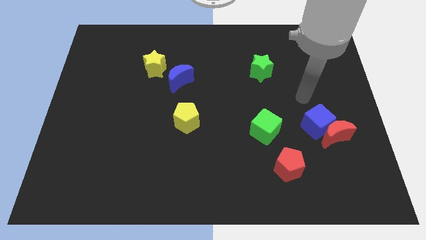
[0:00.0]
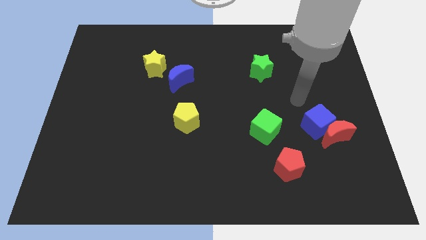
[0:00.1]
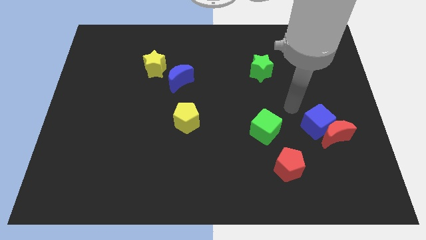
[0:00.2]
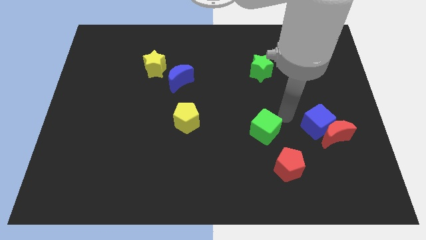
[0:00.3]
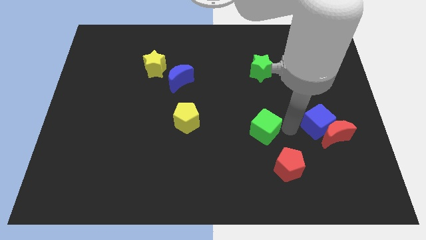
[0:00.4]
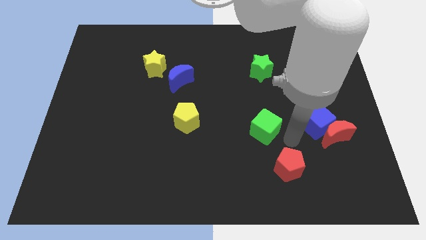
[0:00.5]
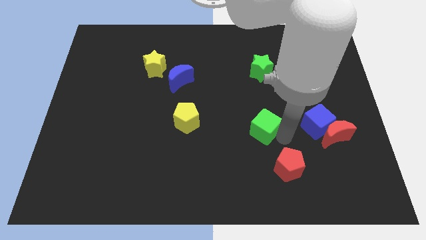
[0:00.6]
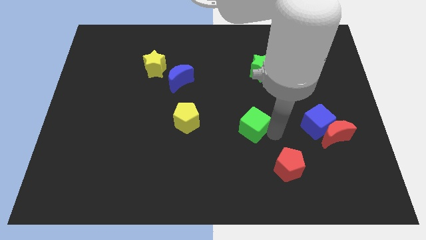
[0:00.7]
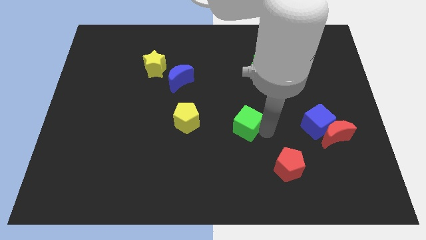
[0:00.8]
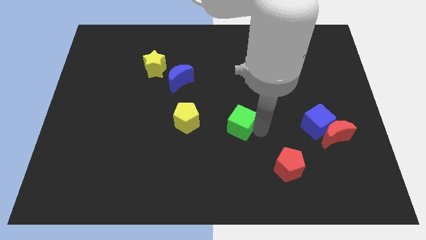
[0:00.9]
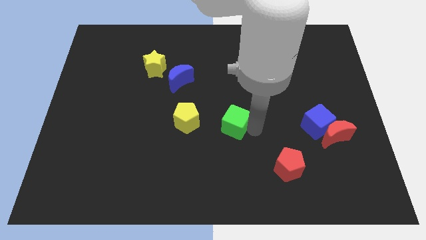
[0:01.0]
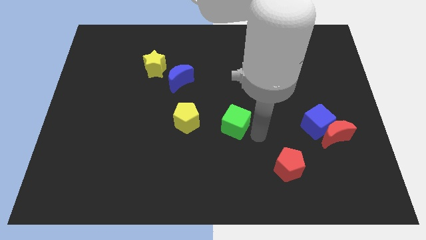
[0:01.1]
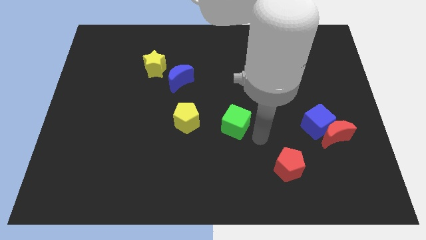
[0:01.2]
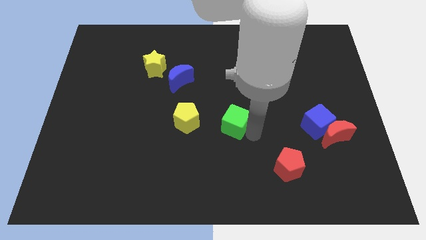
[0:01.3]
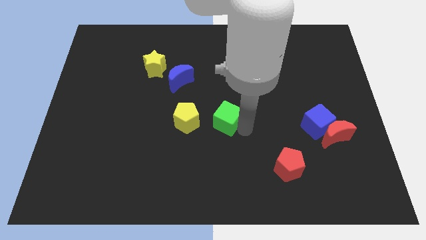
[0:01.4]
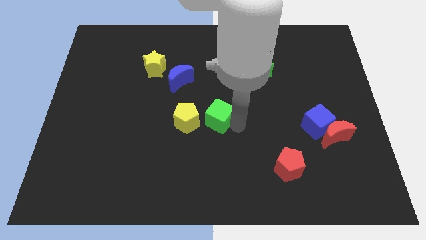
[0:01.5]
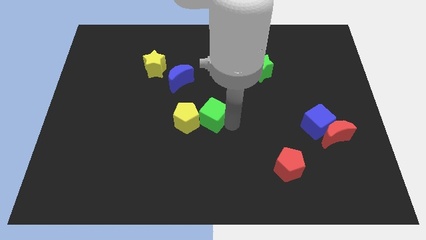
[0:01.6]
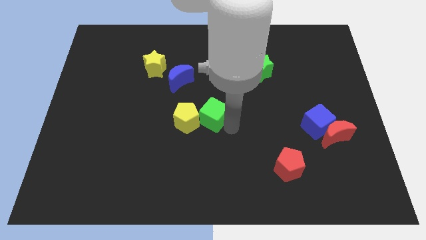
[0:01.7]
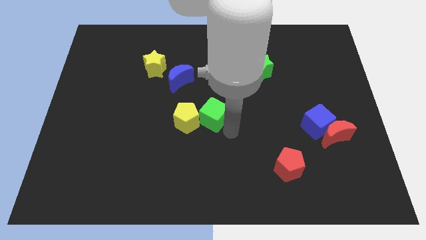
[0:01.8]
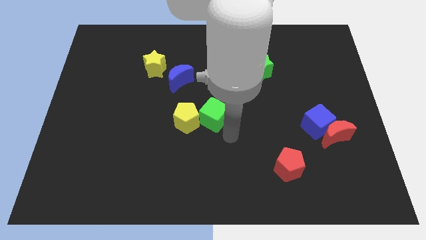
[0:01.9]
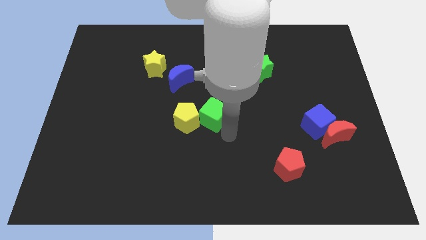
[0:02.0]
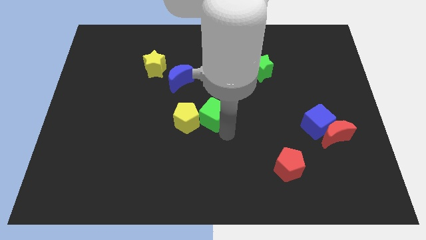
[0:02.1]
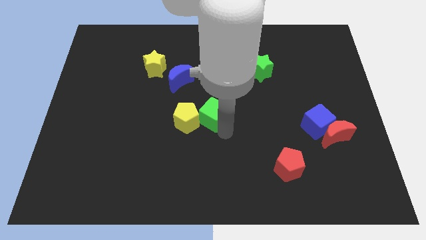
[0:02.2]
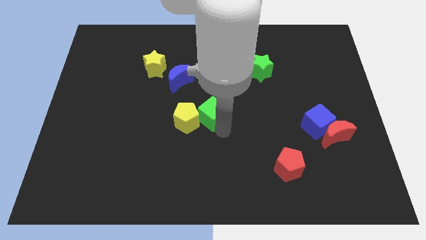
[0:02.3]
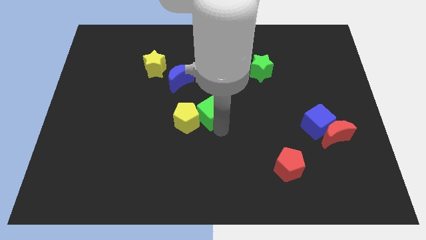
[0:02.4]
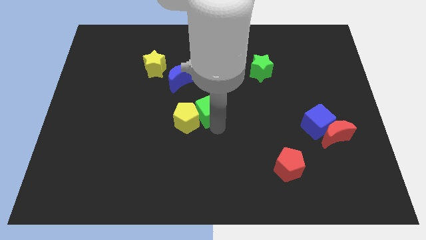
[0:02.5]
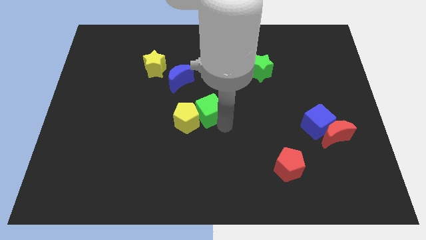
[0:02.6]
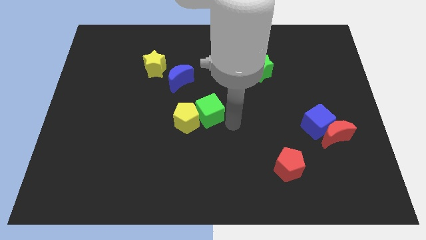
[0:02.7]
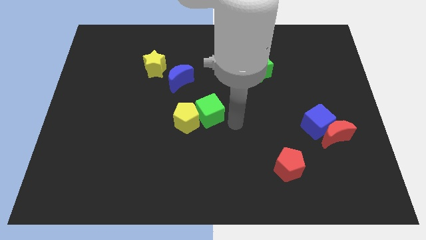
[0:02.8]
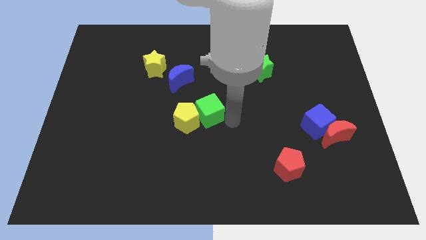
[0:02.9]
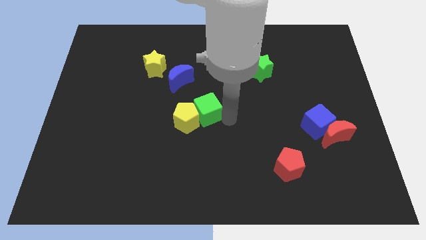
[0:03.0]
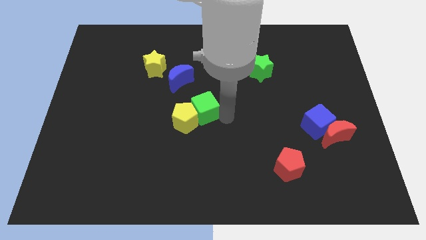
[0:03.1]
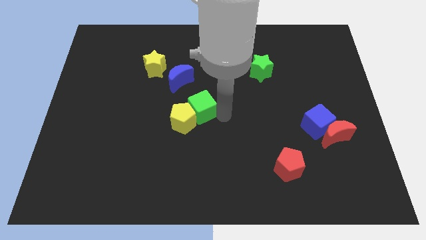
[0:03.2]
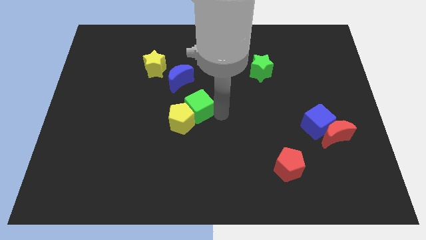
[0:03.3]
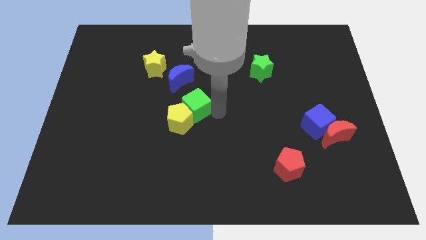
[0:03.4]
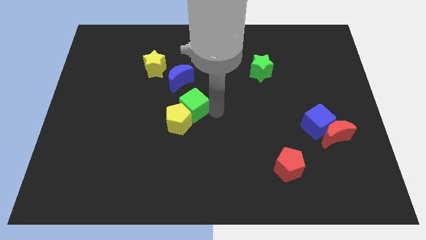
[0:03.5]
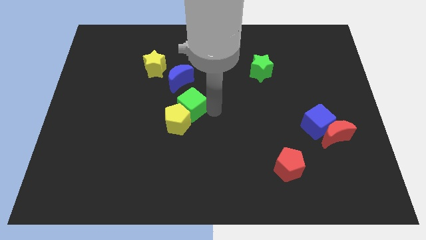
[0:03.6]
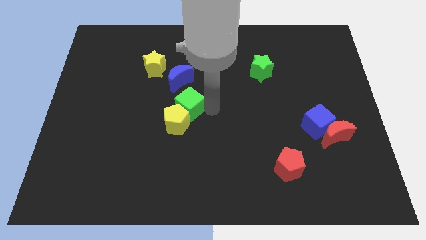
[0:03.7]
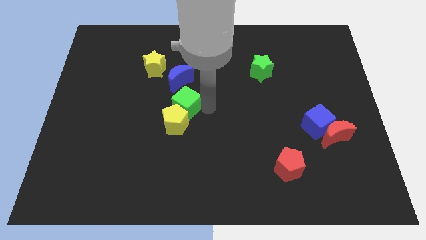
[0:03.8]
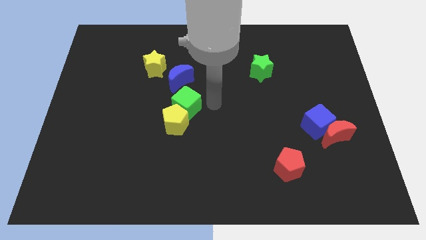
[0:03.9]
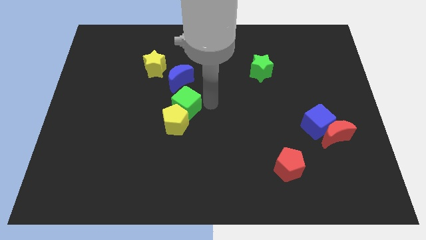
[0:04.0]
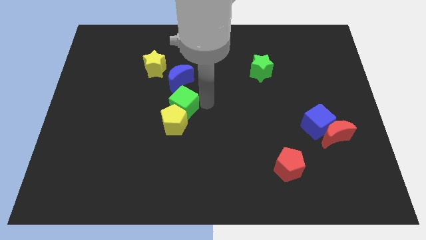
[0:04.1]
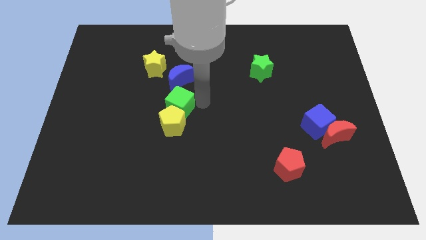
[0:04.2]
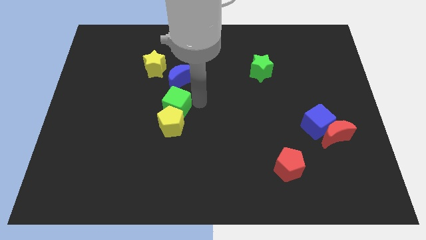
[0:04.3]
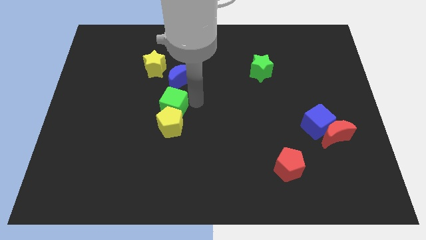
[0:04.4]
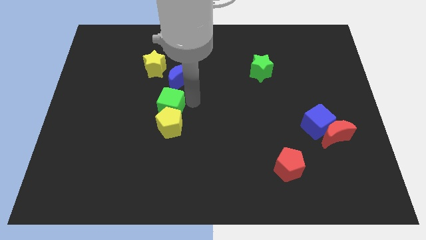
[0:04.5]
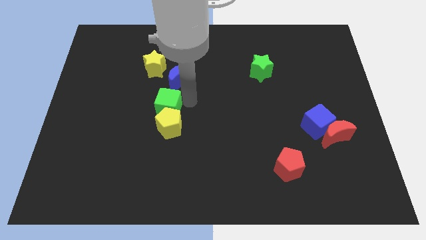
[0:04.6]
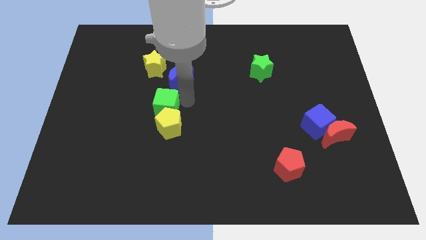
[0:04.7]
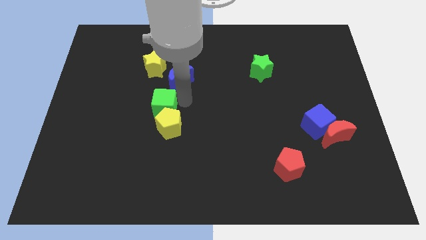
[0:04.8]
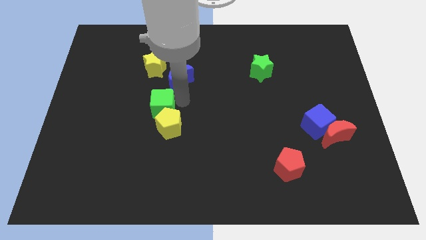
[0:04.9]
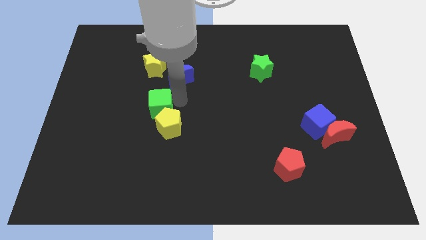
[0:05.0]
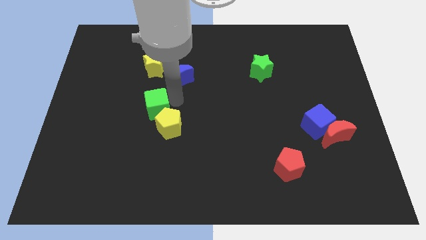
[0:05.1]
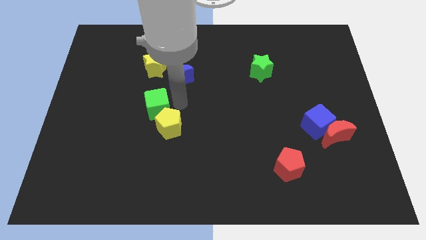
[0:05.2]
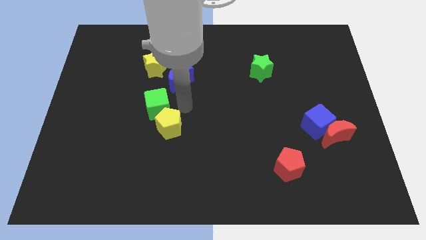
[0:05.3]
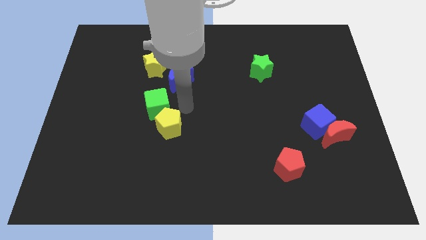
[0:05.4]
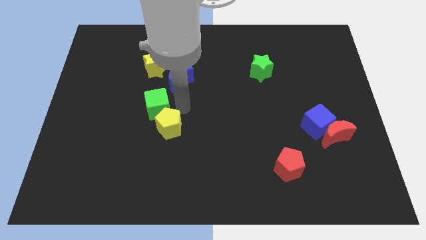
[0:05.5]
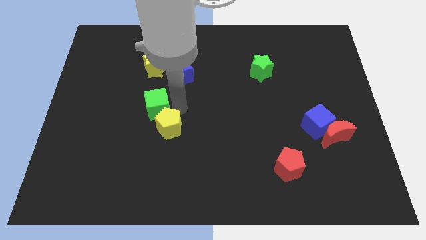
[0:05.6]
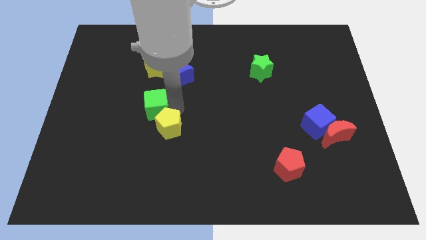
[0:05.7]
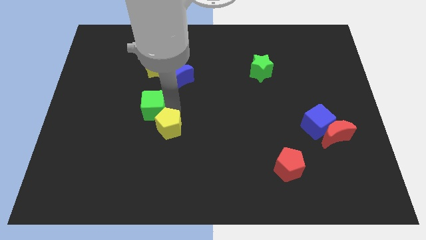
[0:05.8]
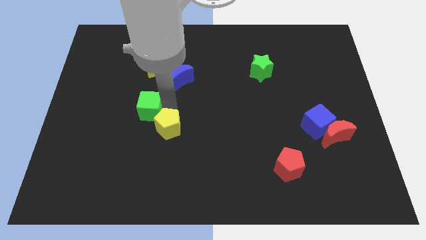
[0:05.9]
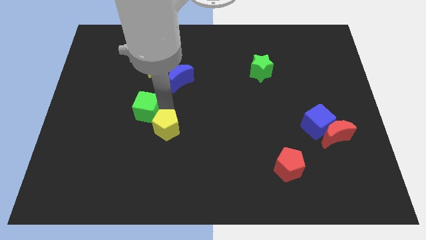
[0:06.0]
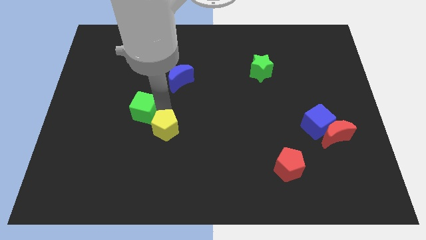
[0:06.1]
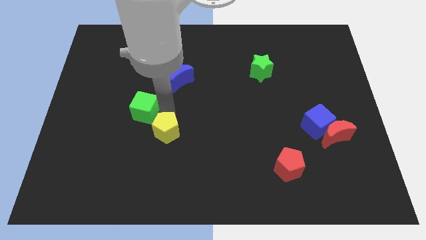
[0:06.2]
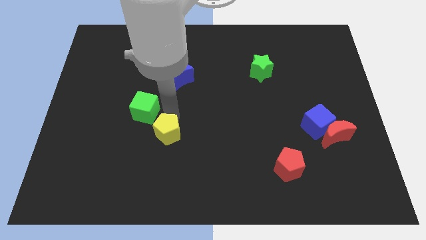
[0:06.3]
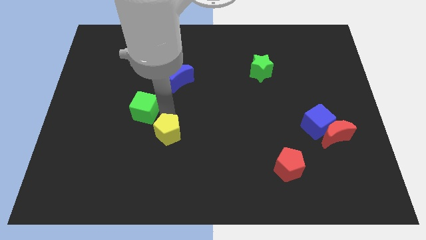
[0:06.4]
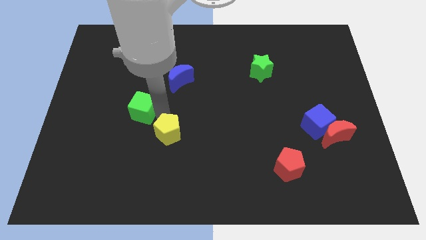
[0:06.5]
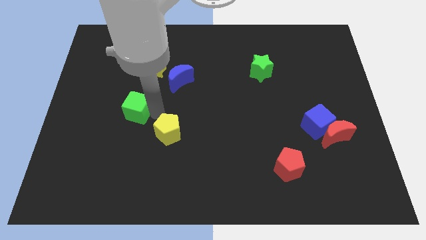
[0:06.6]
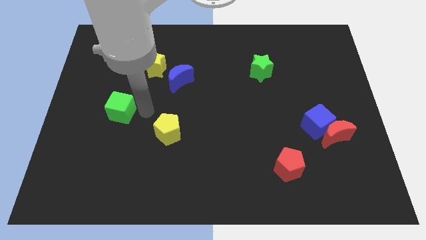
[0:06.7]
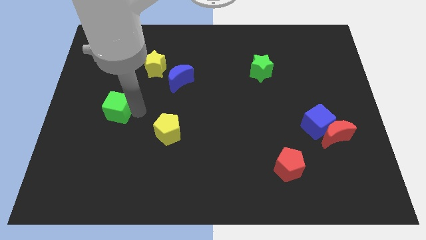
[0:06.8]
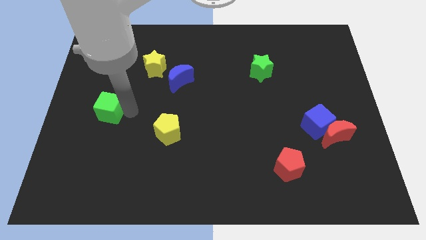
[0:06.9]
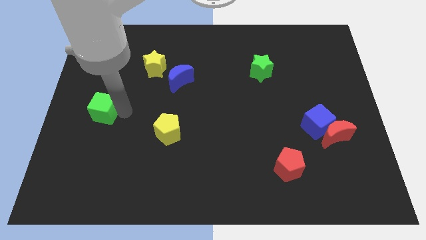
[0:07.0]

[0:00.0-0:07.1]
put the green cube to the left side of the board
